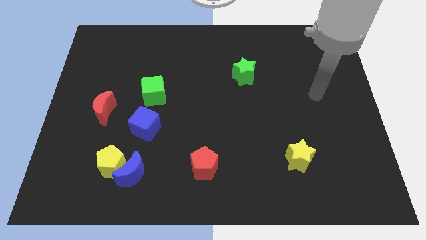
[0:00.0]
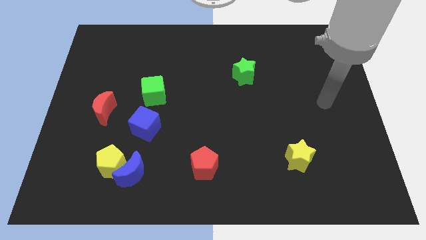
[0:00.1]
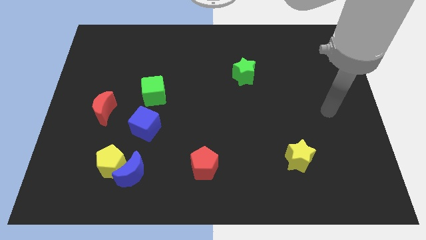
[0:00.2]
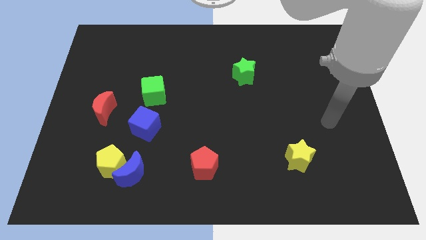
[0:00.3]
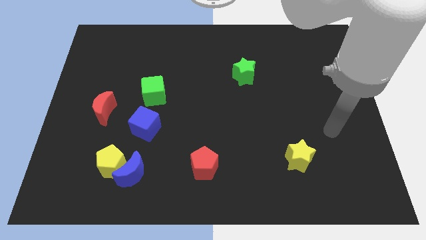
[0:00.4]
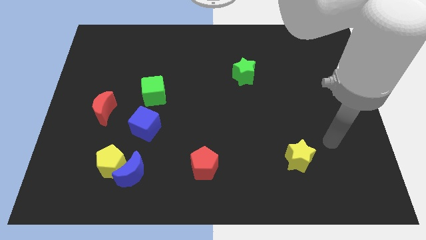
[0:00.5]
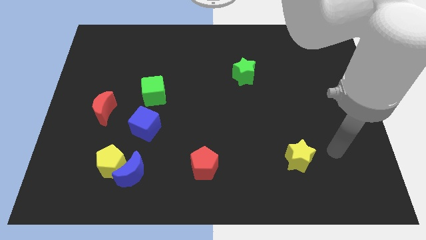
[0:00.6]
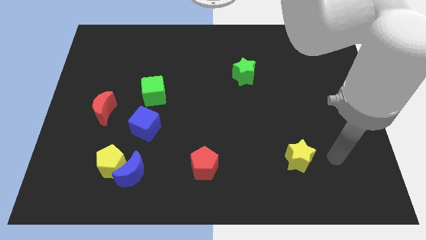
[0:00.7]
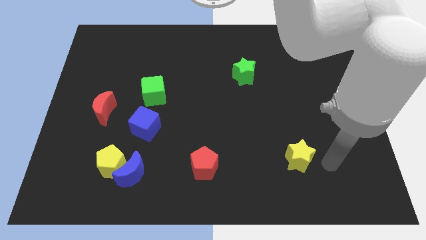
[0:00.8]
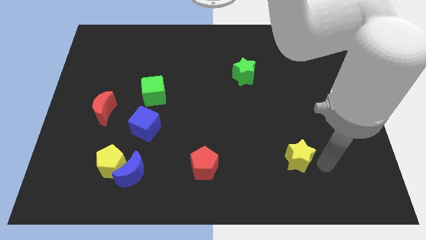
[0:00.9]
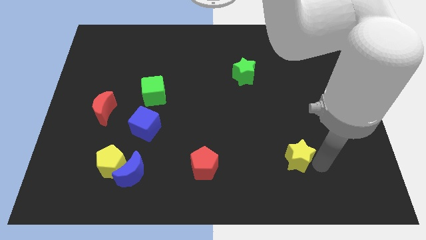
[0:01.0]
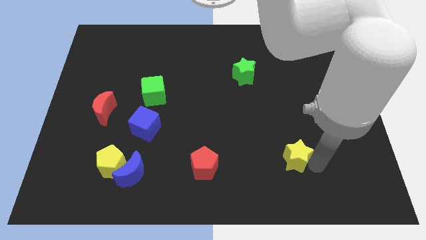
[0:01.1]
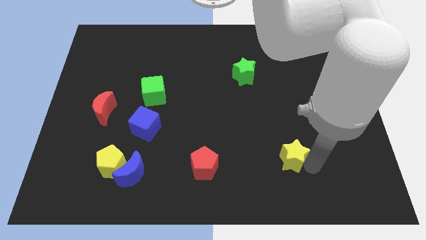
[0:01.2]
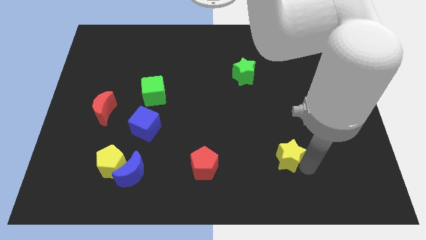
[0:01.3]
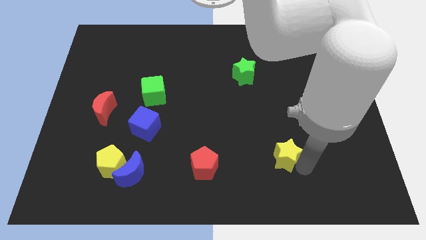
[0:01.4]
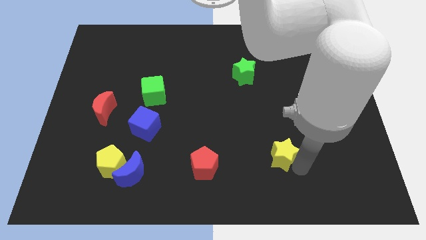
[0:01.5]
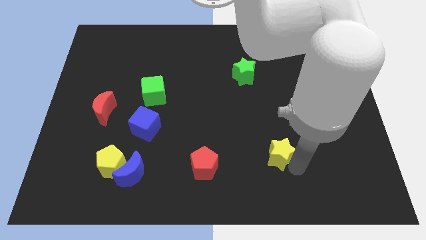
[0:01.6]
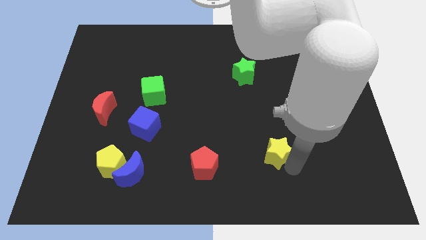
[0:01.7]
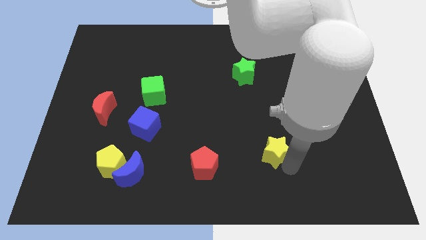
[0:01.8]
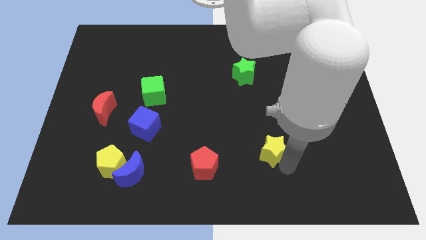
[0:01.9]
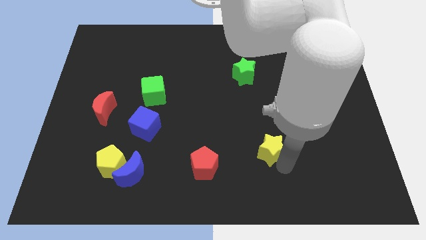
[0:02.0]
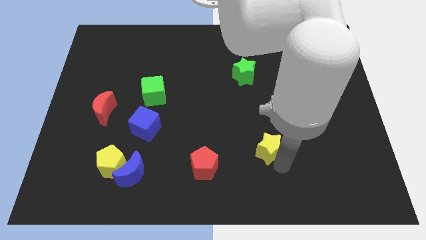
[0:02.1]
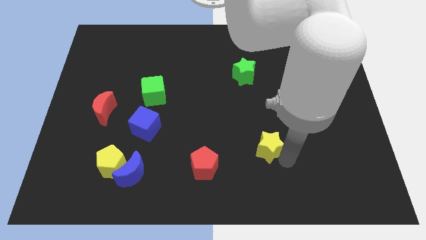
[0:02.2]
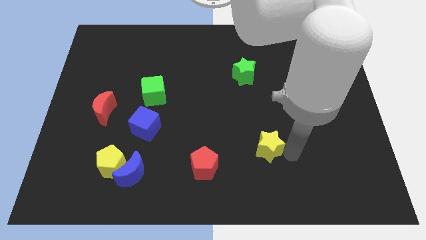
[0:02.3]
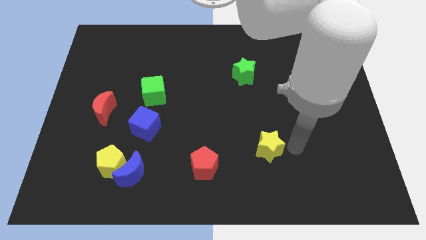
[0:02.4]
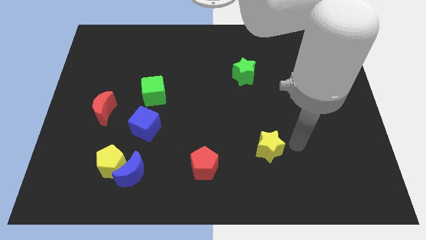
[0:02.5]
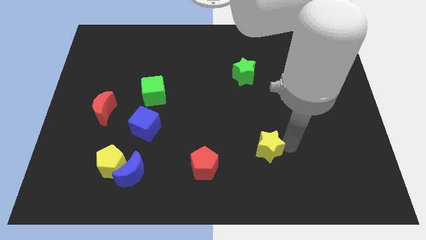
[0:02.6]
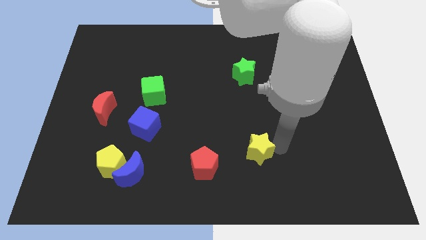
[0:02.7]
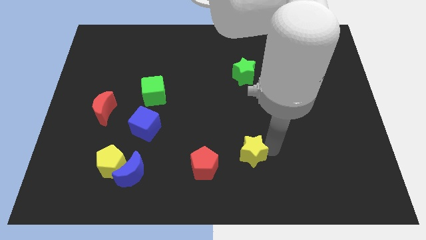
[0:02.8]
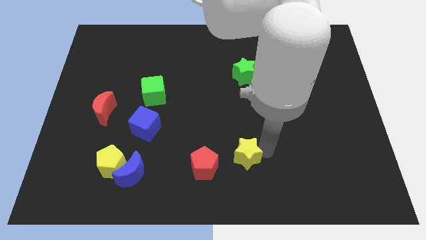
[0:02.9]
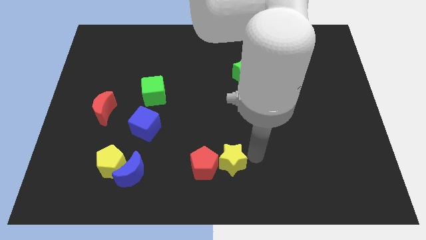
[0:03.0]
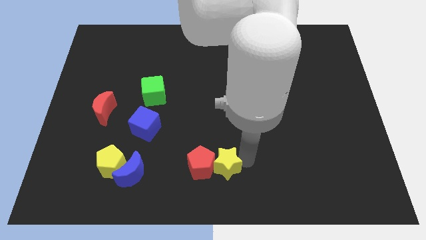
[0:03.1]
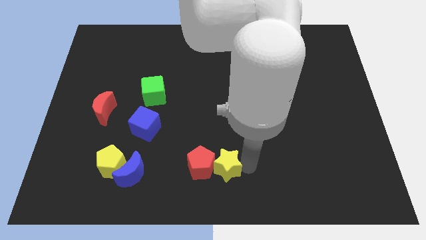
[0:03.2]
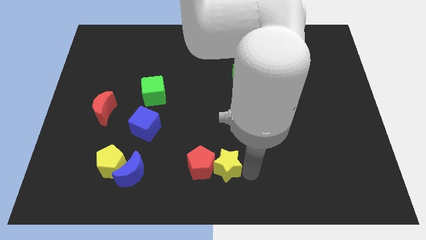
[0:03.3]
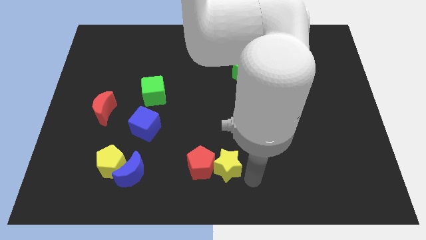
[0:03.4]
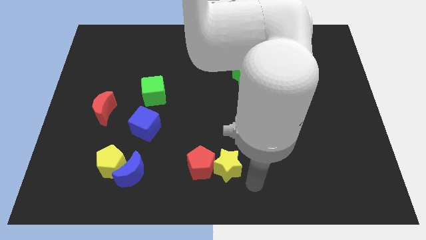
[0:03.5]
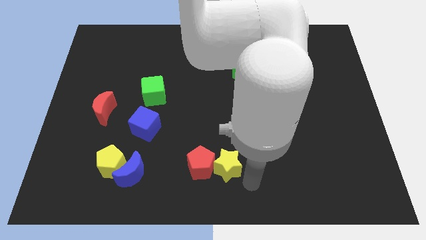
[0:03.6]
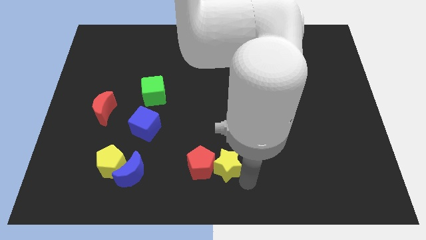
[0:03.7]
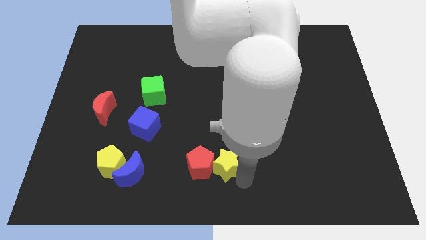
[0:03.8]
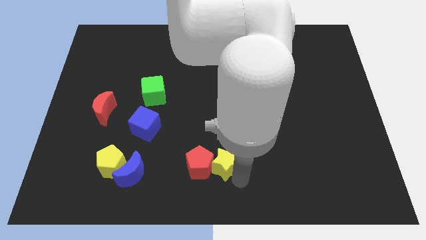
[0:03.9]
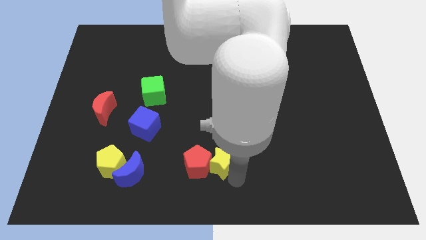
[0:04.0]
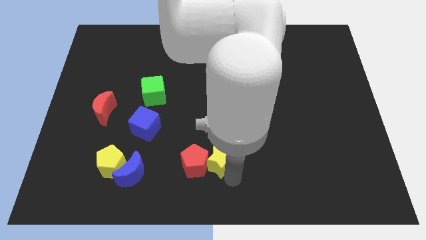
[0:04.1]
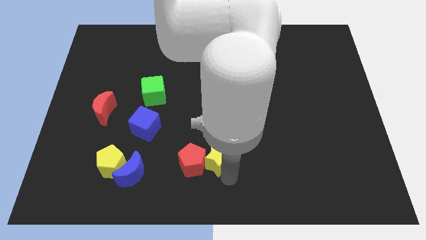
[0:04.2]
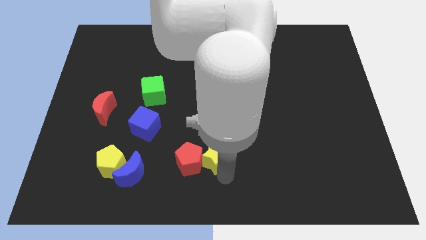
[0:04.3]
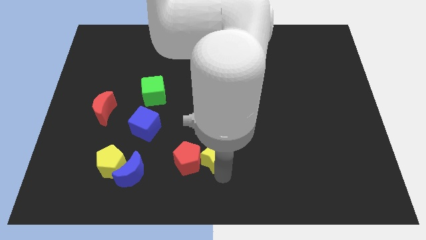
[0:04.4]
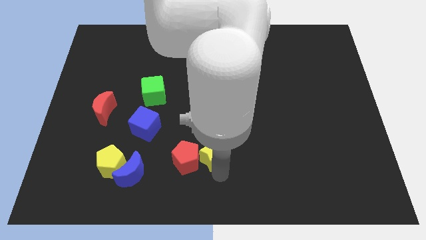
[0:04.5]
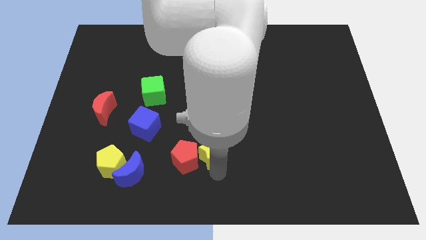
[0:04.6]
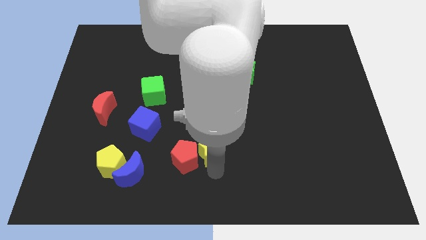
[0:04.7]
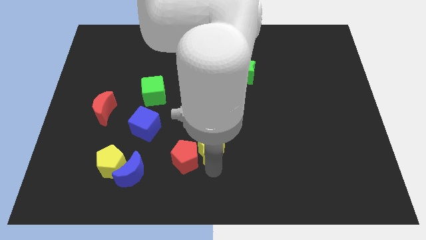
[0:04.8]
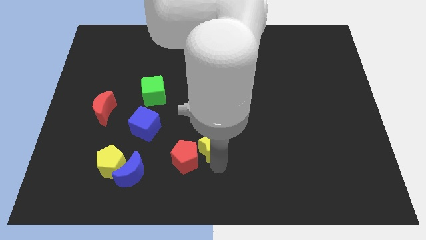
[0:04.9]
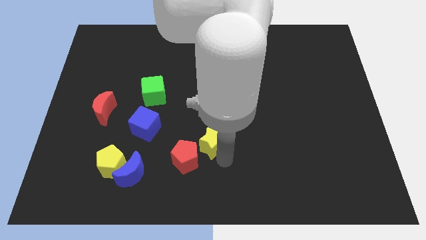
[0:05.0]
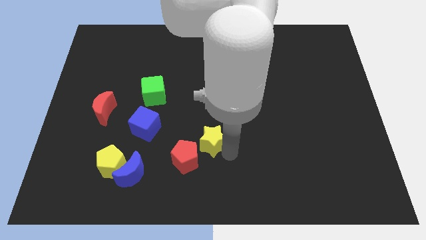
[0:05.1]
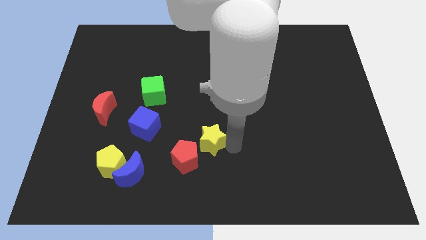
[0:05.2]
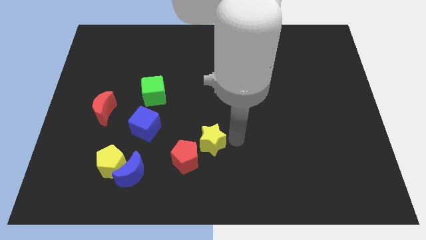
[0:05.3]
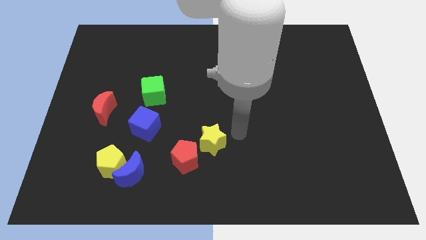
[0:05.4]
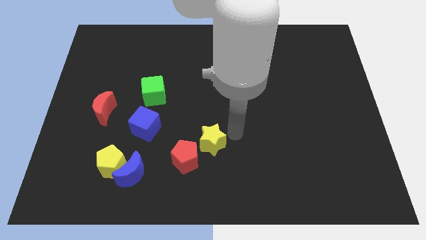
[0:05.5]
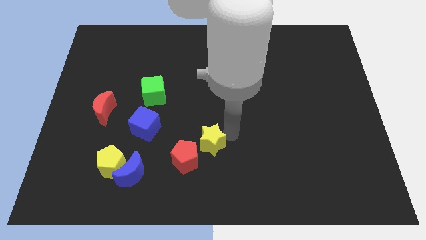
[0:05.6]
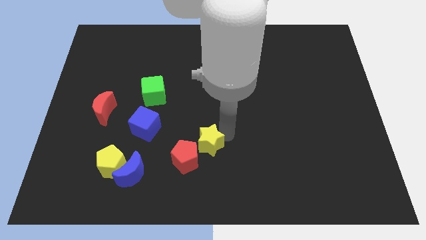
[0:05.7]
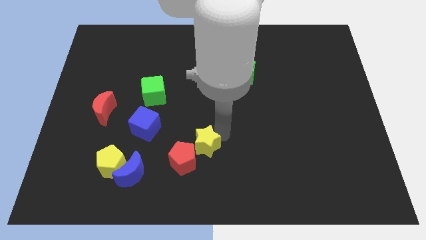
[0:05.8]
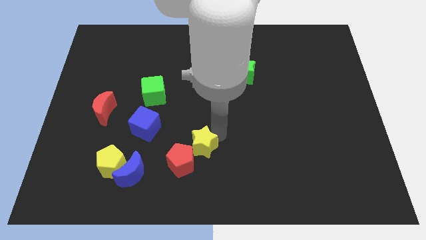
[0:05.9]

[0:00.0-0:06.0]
push the yellow star to the left

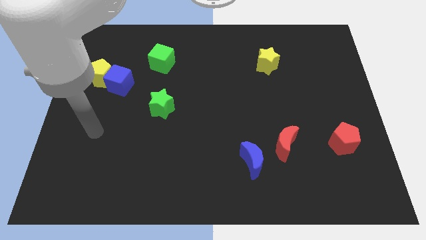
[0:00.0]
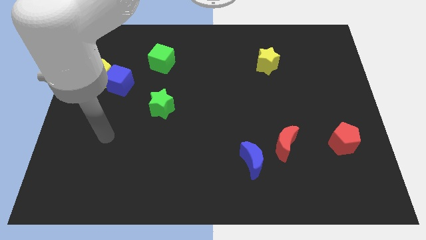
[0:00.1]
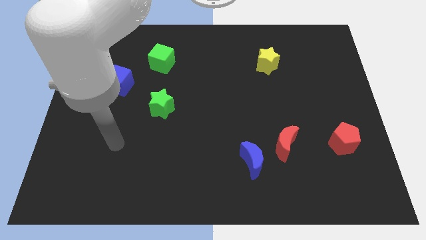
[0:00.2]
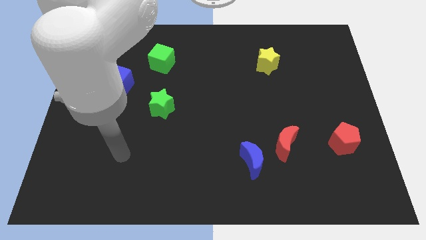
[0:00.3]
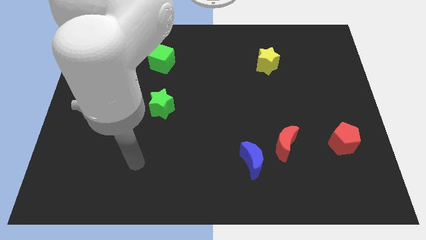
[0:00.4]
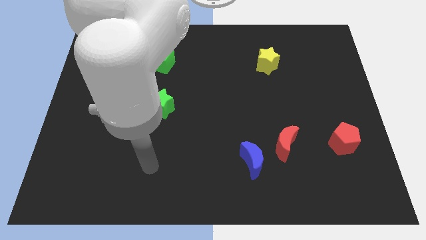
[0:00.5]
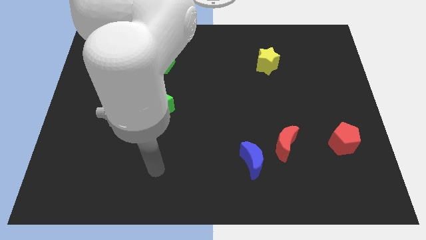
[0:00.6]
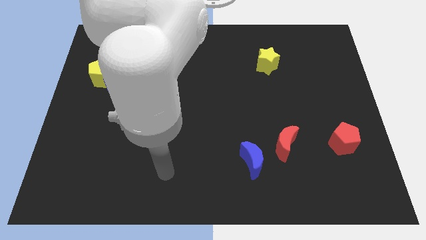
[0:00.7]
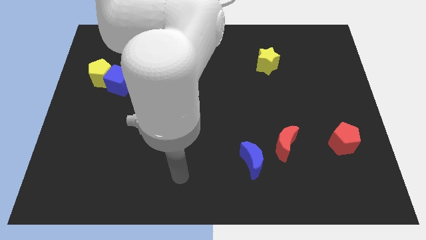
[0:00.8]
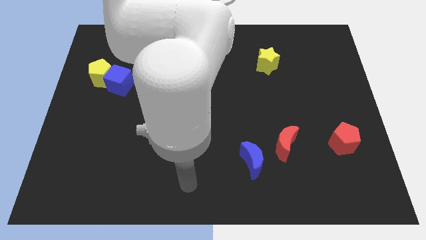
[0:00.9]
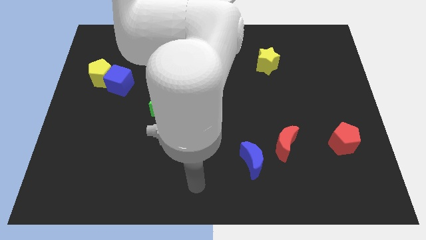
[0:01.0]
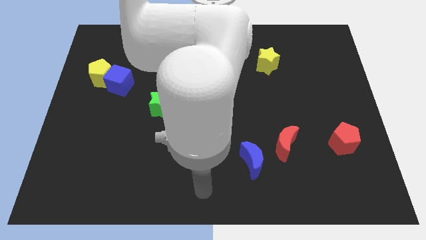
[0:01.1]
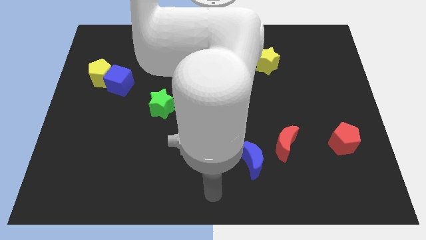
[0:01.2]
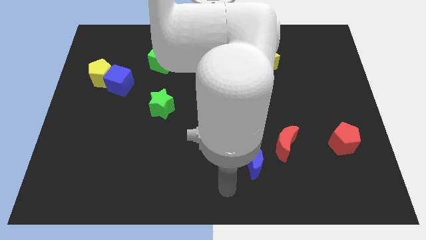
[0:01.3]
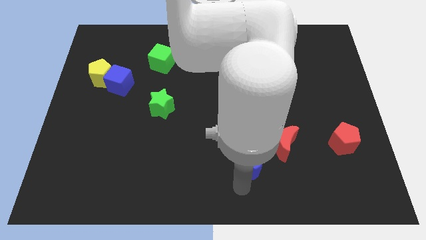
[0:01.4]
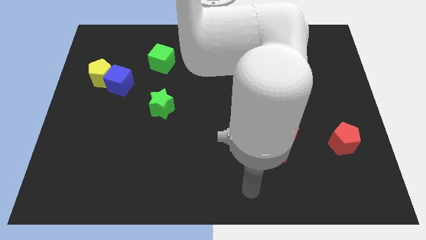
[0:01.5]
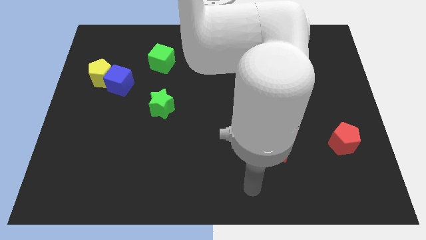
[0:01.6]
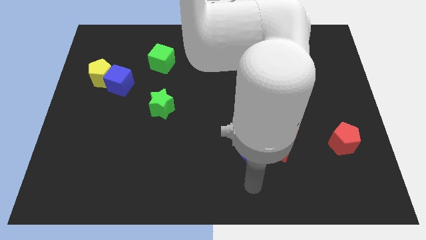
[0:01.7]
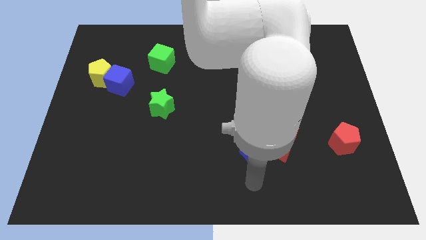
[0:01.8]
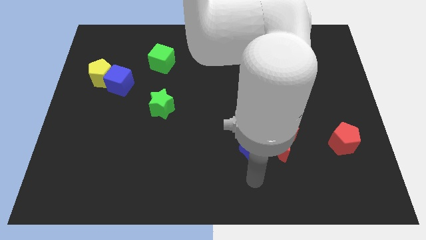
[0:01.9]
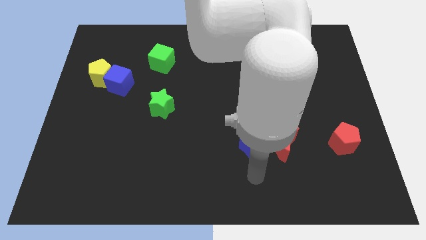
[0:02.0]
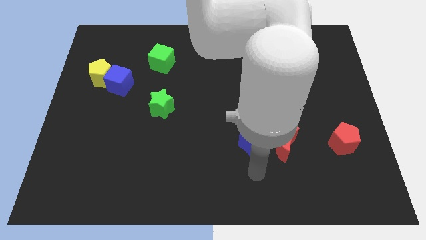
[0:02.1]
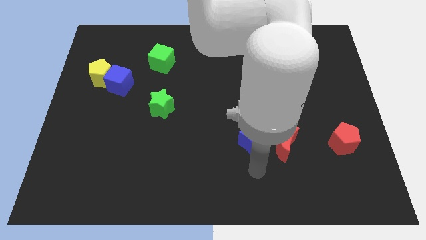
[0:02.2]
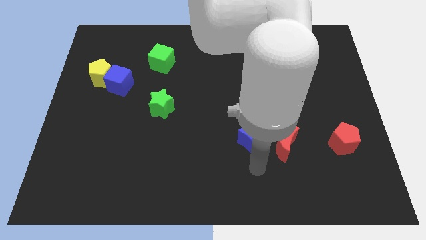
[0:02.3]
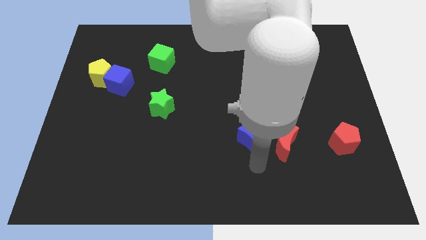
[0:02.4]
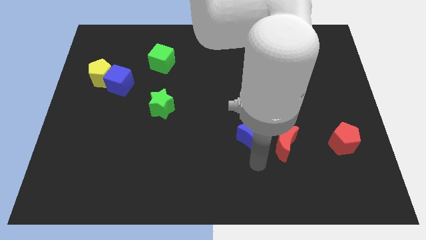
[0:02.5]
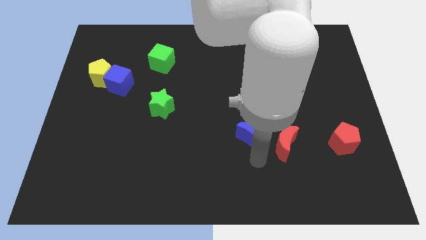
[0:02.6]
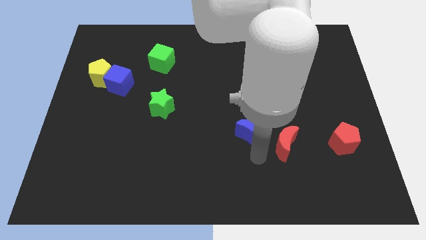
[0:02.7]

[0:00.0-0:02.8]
slightly push the blue moon upwards
